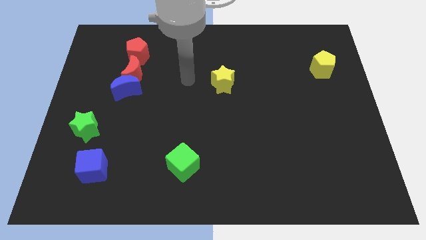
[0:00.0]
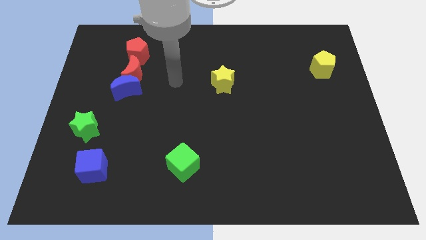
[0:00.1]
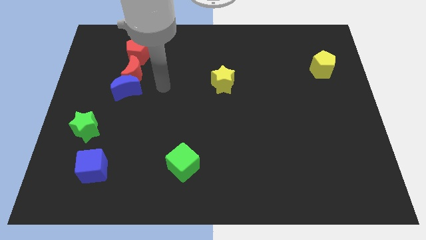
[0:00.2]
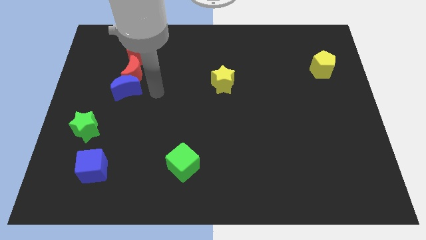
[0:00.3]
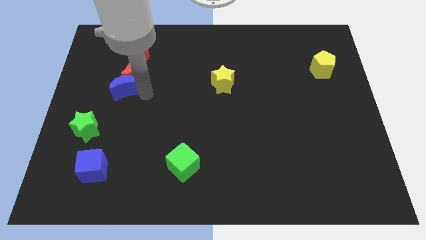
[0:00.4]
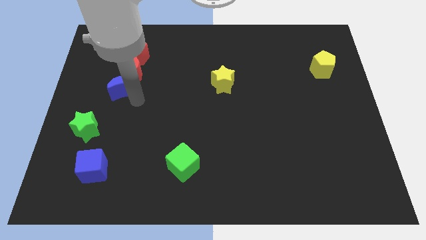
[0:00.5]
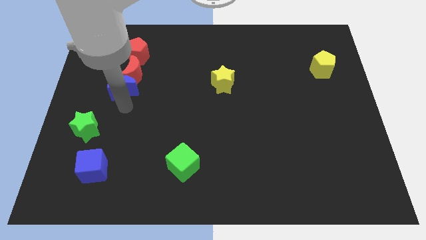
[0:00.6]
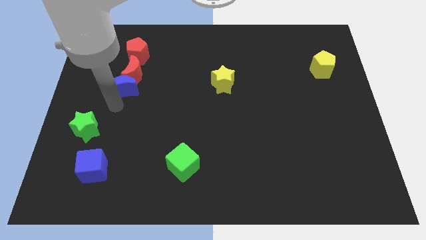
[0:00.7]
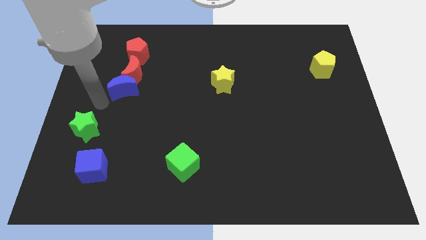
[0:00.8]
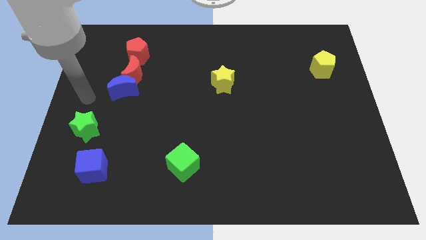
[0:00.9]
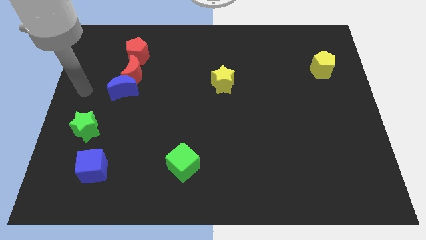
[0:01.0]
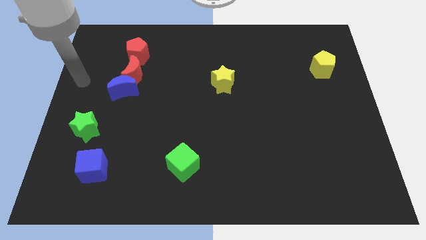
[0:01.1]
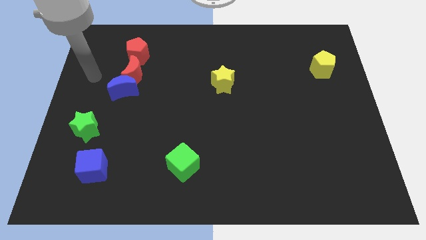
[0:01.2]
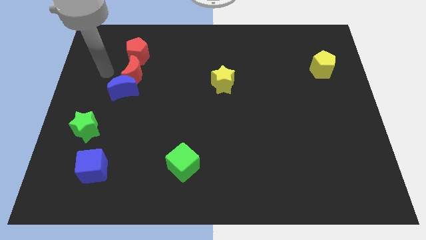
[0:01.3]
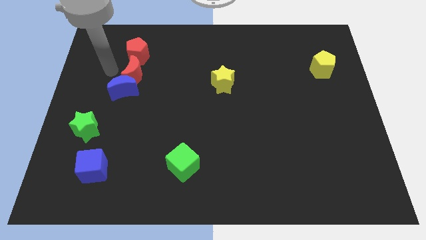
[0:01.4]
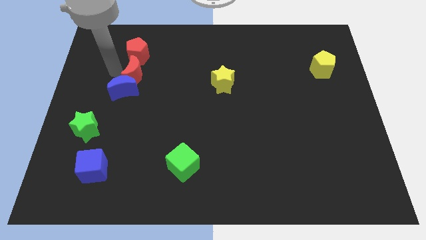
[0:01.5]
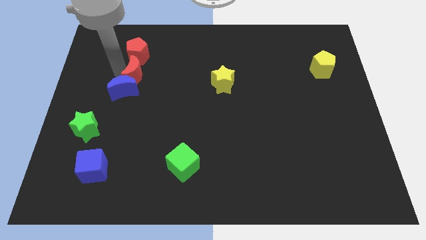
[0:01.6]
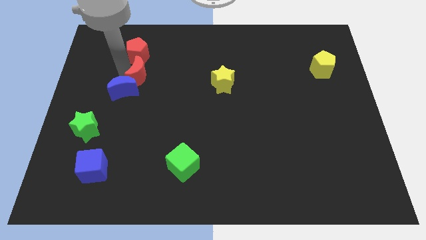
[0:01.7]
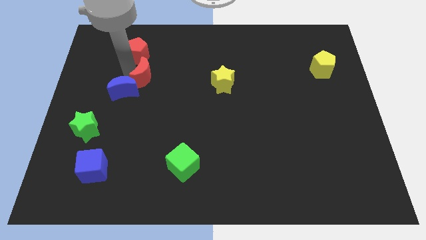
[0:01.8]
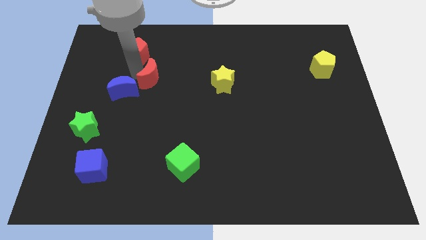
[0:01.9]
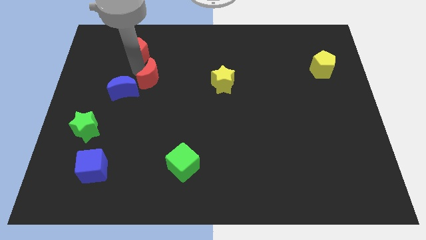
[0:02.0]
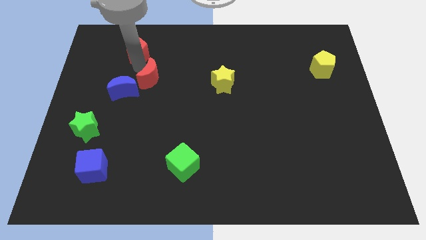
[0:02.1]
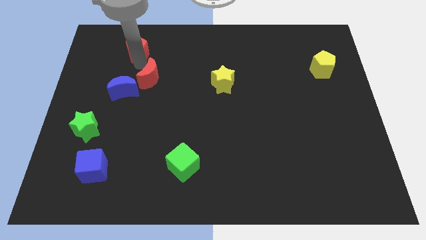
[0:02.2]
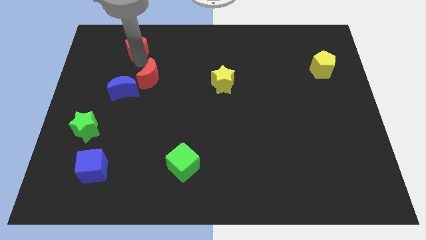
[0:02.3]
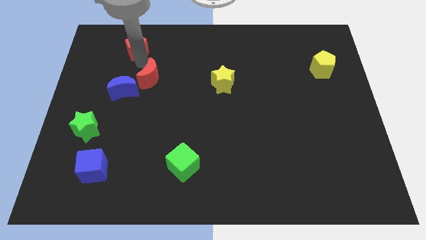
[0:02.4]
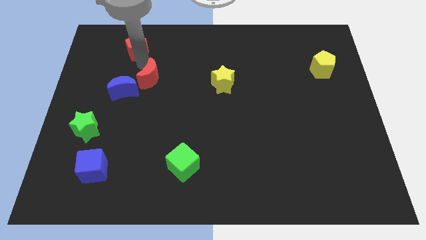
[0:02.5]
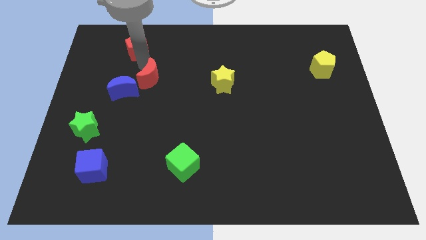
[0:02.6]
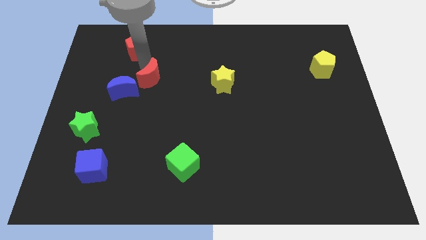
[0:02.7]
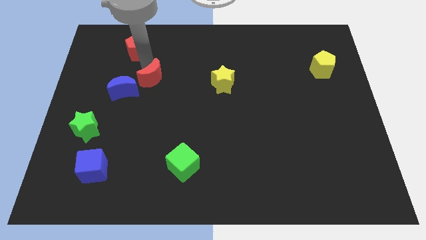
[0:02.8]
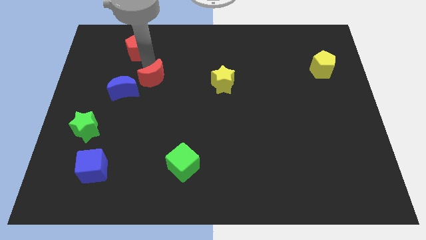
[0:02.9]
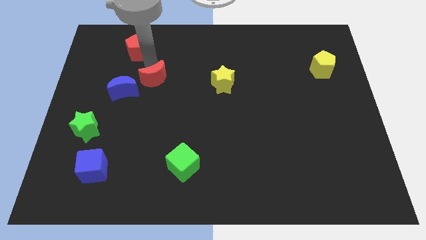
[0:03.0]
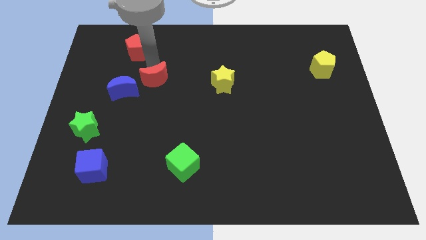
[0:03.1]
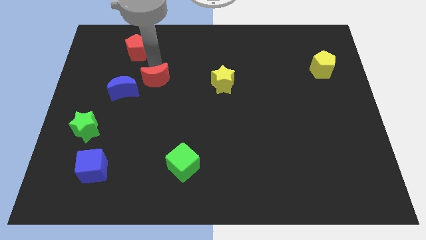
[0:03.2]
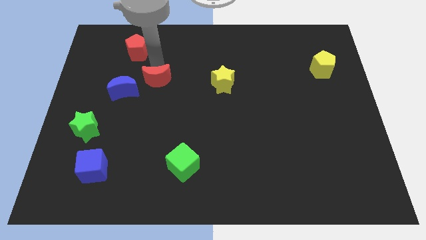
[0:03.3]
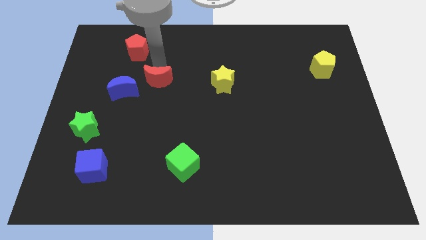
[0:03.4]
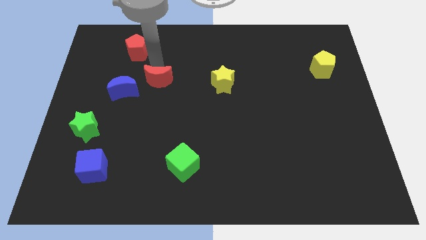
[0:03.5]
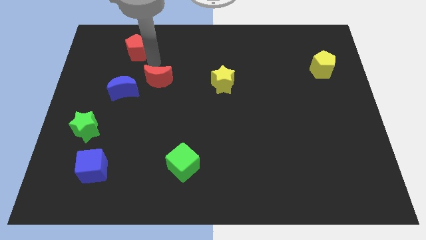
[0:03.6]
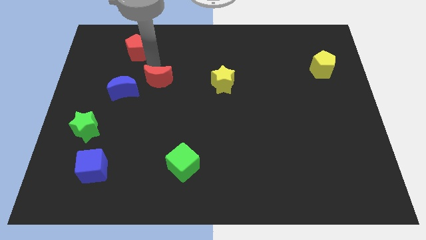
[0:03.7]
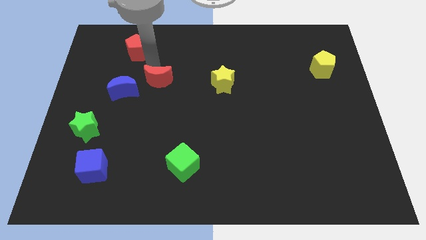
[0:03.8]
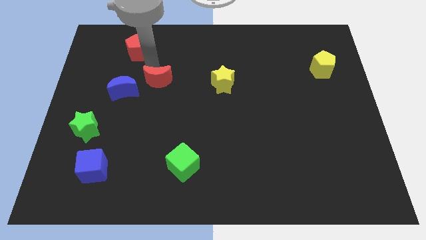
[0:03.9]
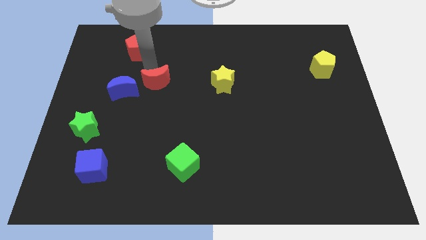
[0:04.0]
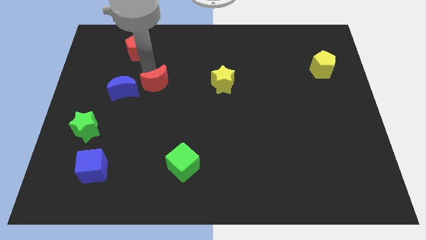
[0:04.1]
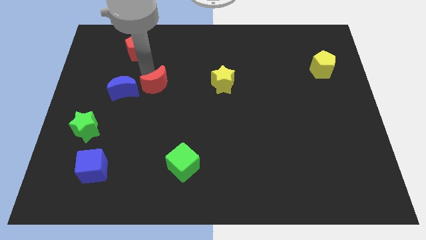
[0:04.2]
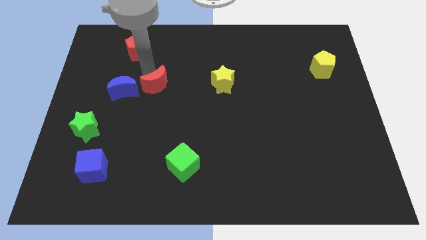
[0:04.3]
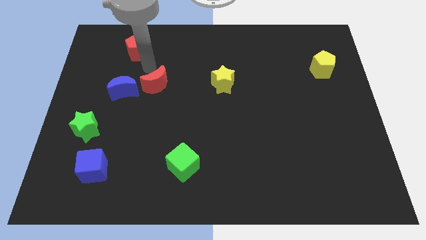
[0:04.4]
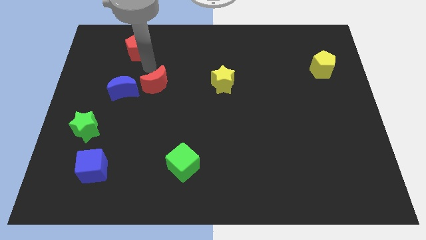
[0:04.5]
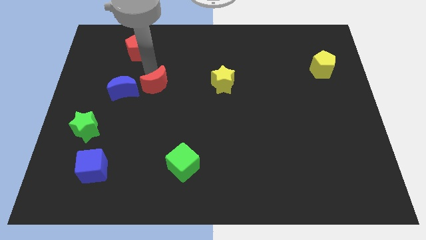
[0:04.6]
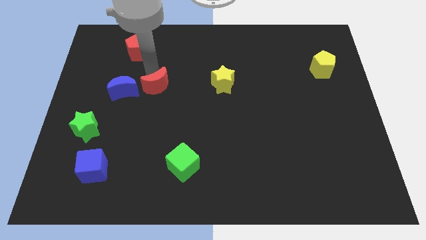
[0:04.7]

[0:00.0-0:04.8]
slightly slide the red moon down and to the right

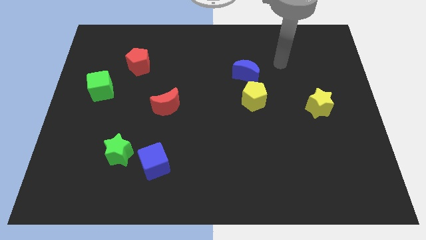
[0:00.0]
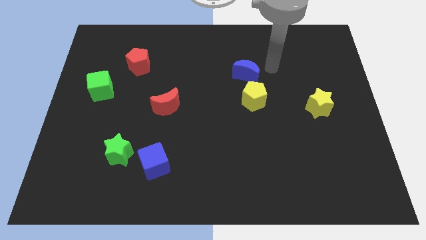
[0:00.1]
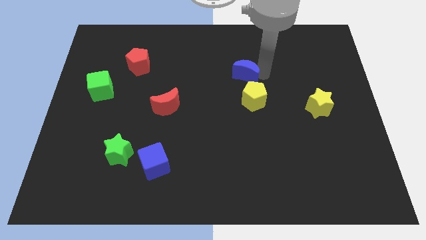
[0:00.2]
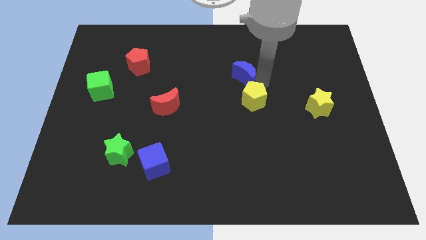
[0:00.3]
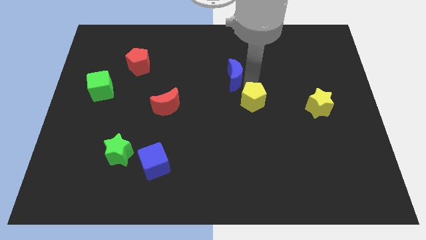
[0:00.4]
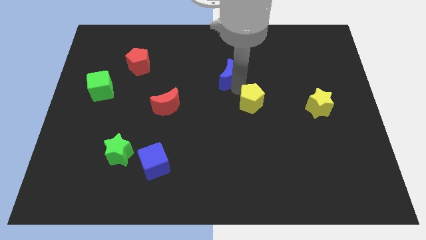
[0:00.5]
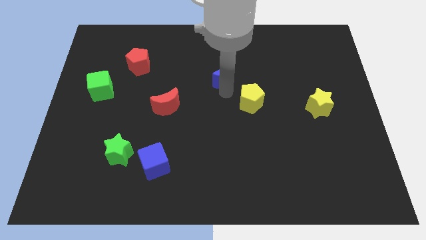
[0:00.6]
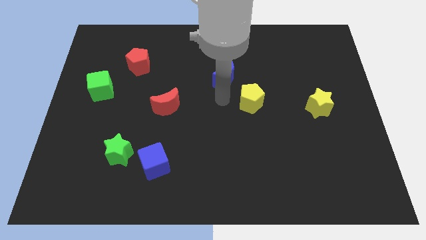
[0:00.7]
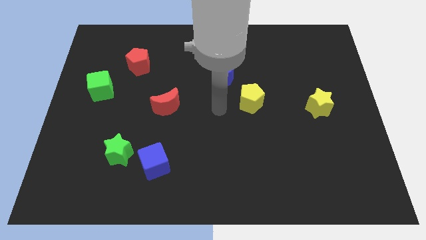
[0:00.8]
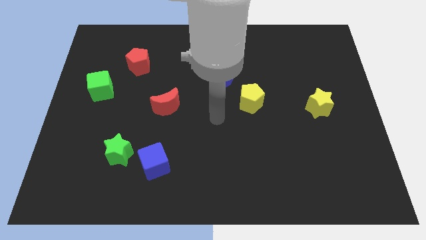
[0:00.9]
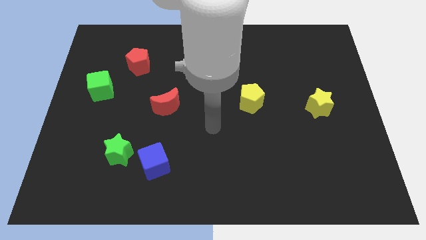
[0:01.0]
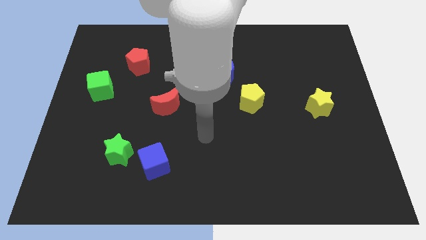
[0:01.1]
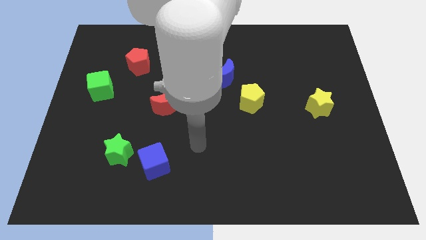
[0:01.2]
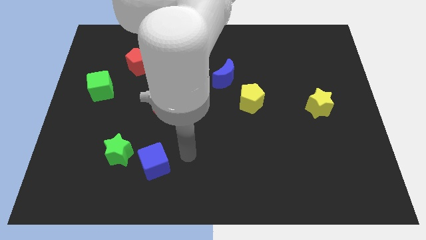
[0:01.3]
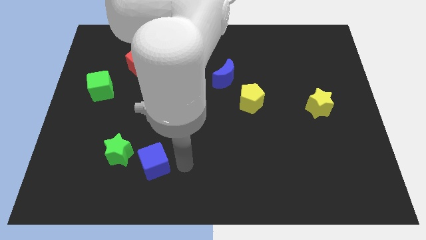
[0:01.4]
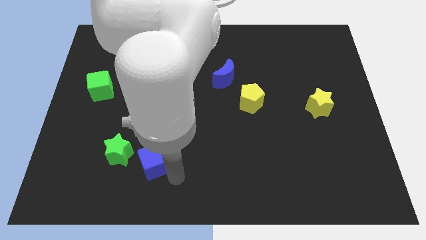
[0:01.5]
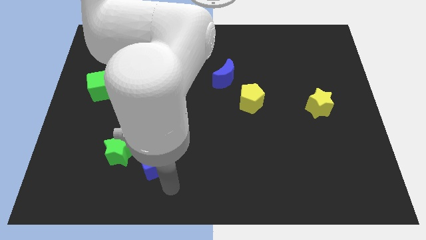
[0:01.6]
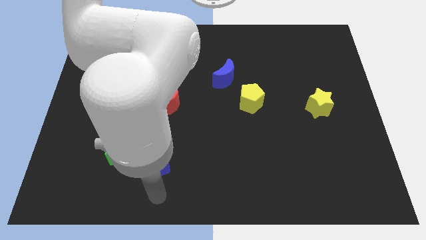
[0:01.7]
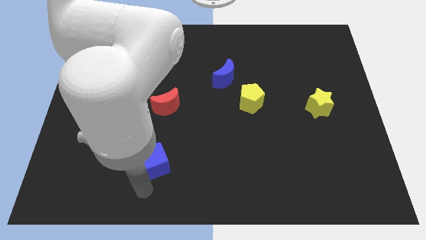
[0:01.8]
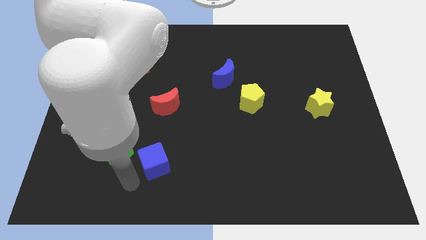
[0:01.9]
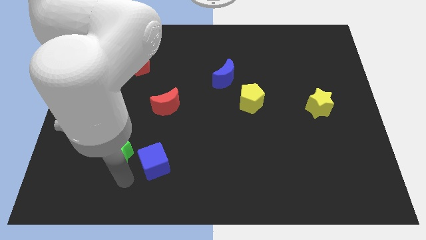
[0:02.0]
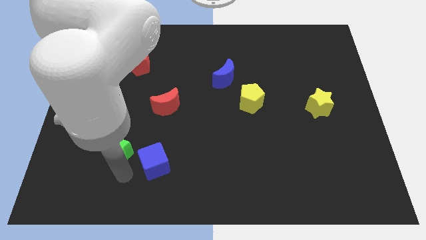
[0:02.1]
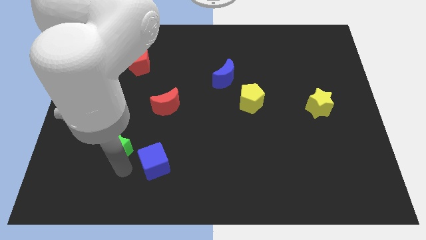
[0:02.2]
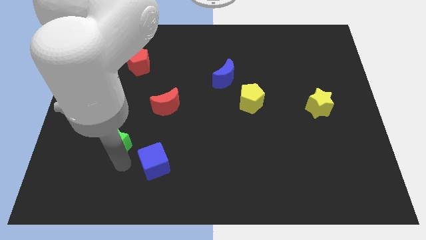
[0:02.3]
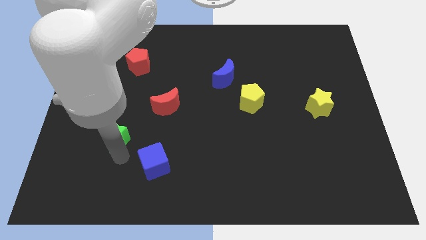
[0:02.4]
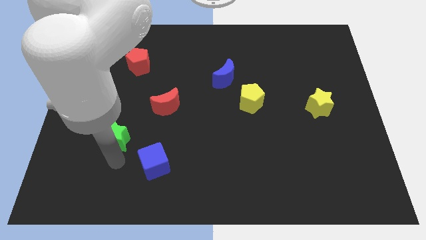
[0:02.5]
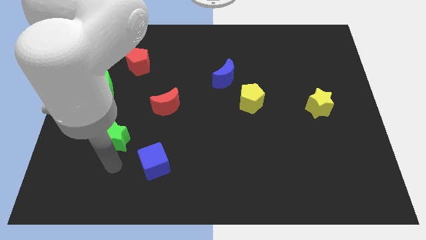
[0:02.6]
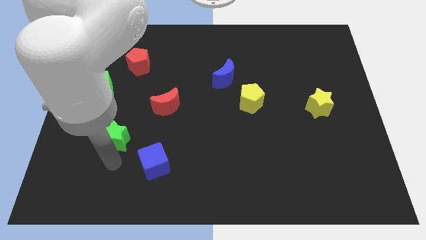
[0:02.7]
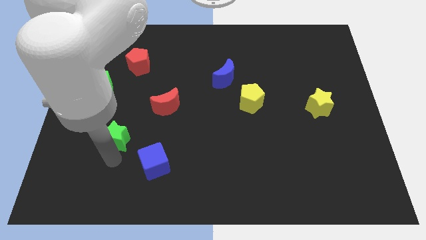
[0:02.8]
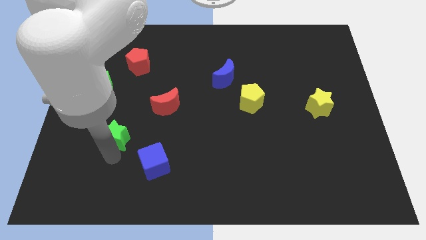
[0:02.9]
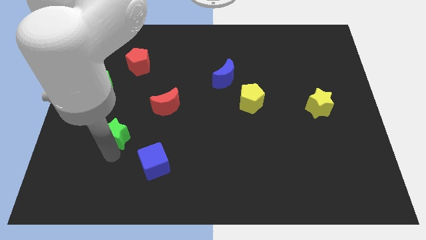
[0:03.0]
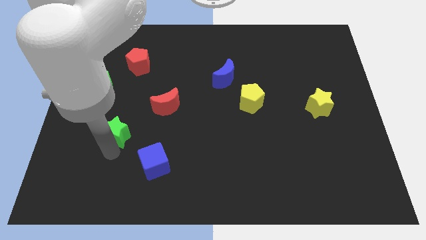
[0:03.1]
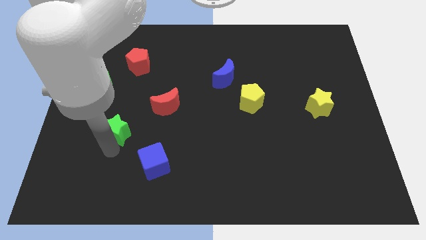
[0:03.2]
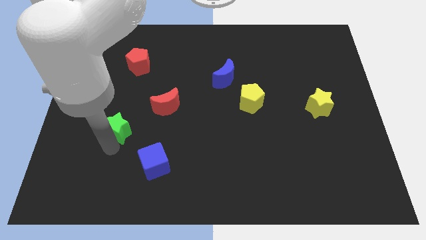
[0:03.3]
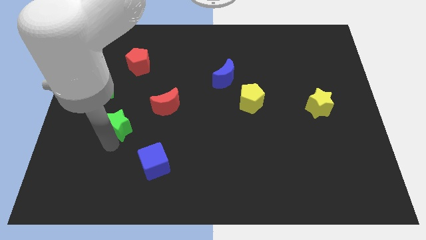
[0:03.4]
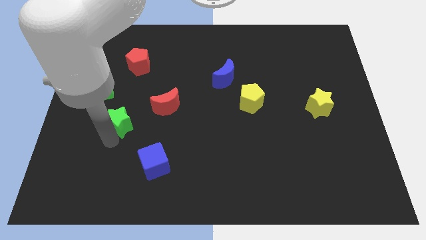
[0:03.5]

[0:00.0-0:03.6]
slide the green star a little bit up
